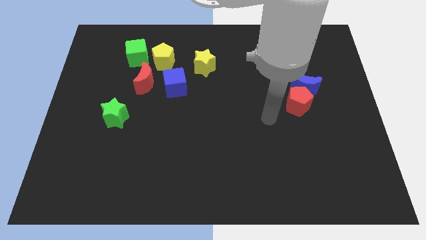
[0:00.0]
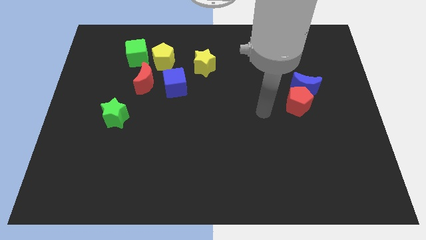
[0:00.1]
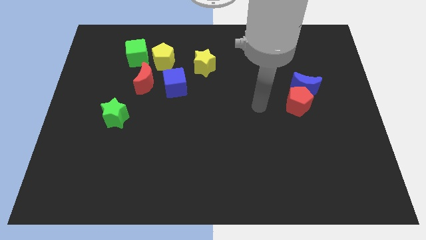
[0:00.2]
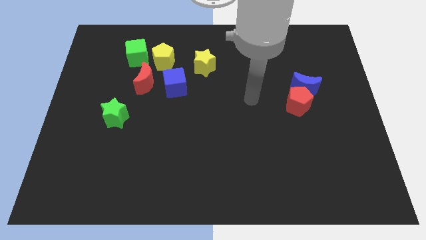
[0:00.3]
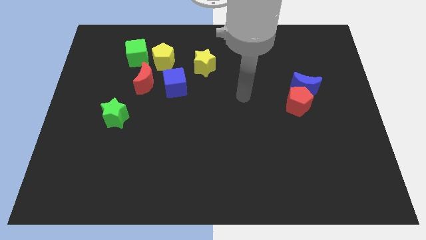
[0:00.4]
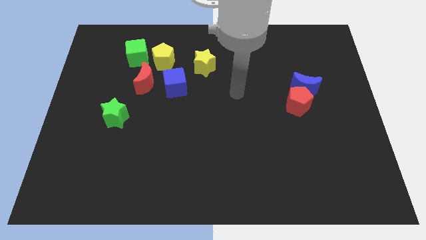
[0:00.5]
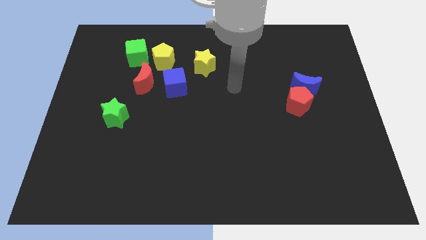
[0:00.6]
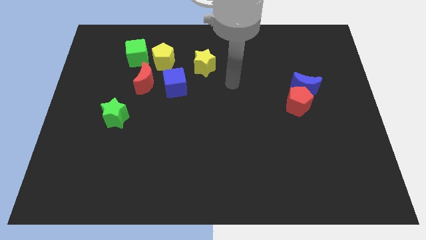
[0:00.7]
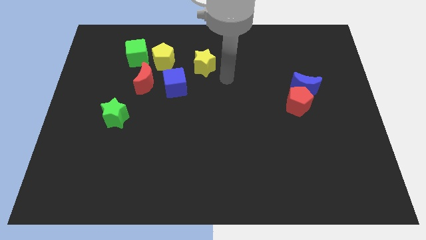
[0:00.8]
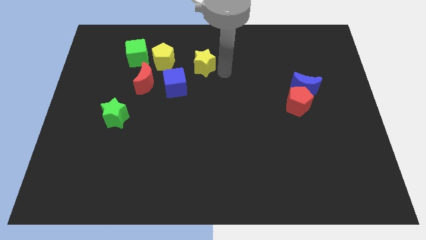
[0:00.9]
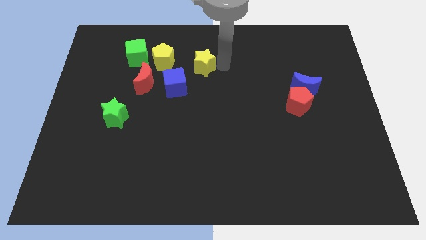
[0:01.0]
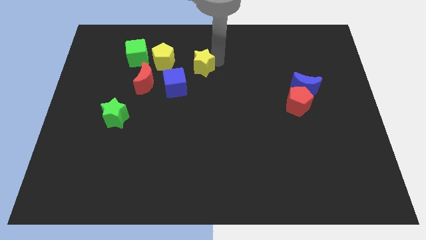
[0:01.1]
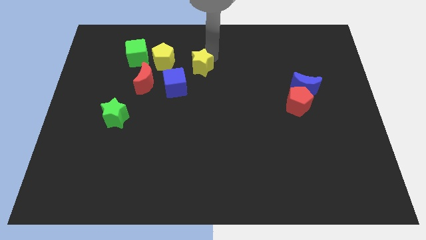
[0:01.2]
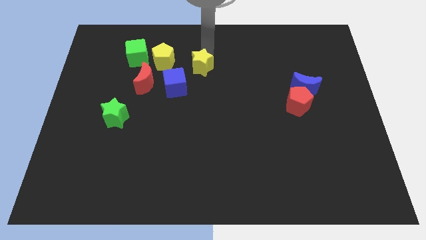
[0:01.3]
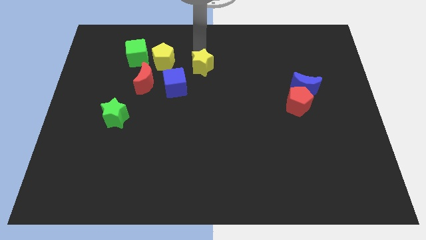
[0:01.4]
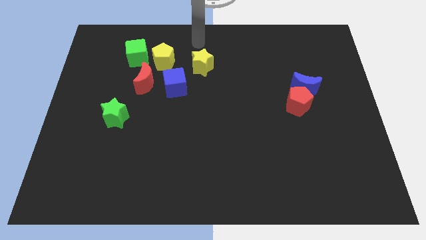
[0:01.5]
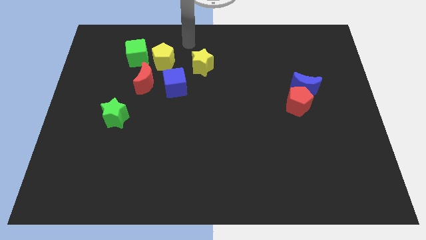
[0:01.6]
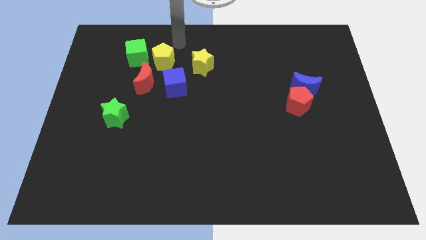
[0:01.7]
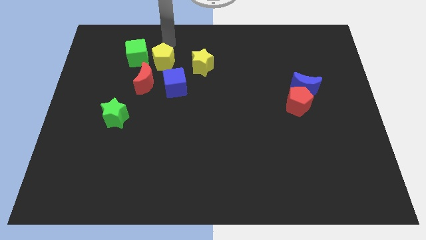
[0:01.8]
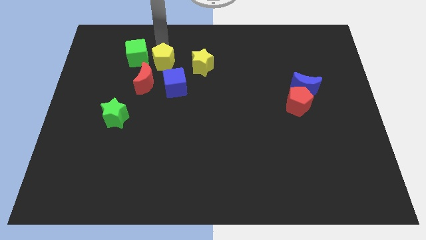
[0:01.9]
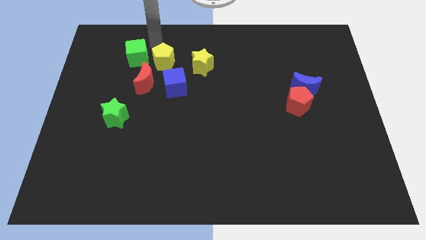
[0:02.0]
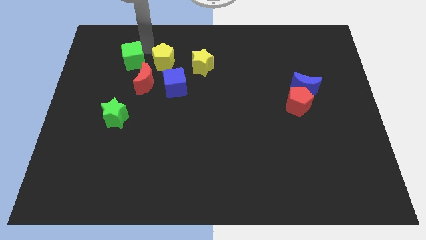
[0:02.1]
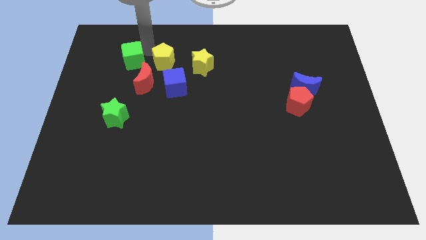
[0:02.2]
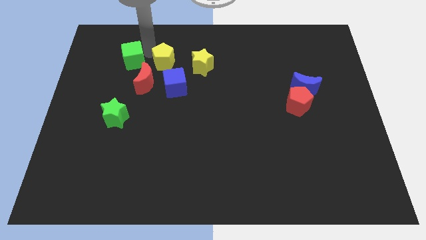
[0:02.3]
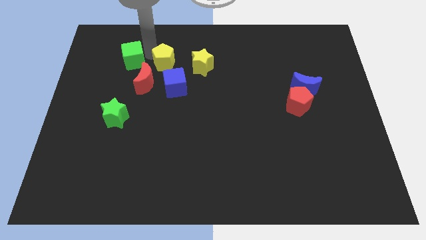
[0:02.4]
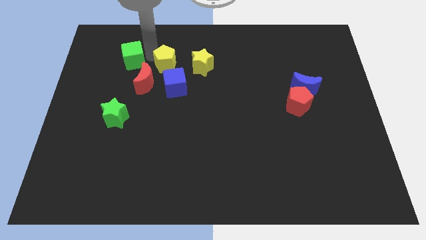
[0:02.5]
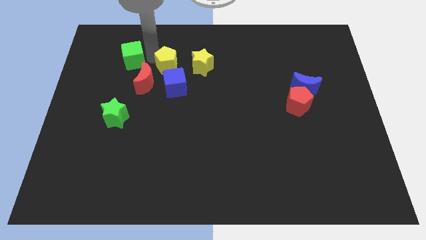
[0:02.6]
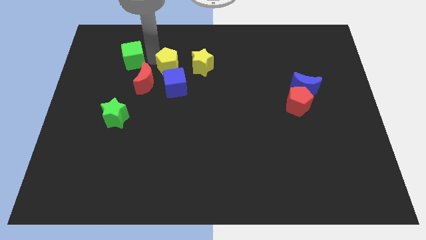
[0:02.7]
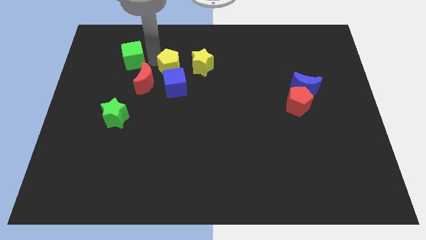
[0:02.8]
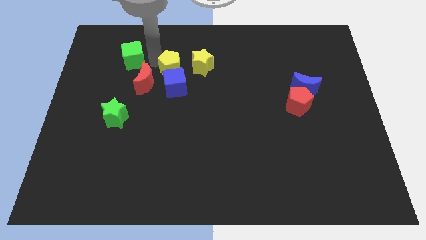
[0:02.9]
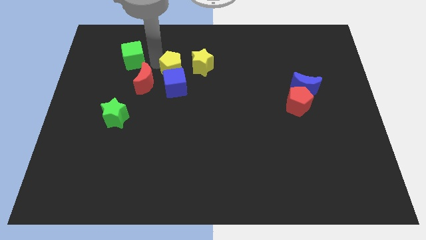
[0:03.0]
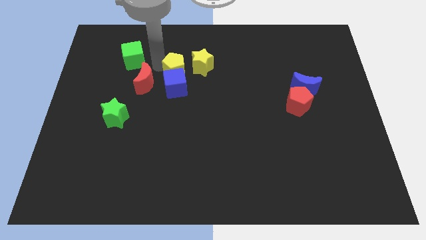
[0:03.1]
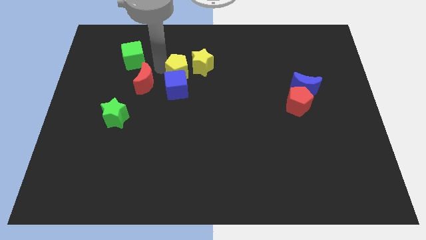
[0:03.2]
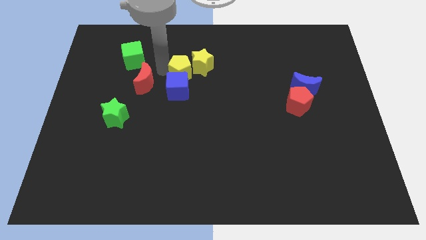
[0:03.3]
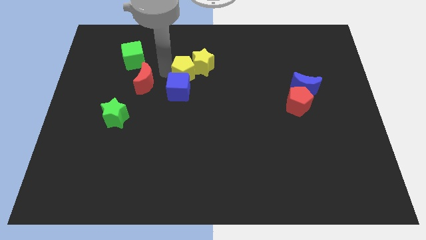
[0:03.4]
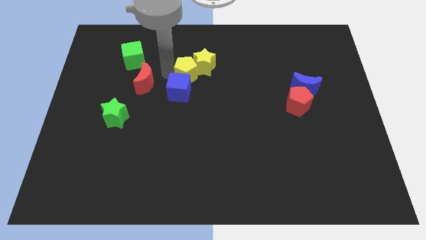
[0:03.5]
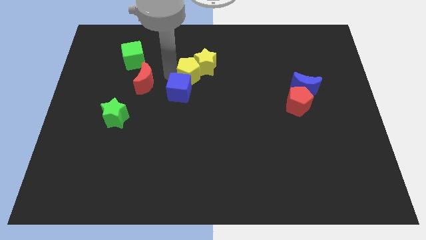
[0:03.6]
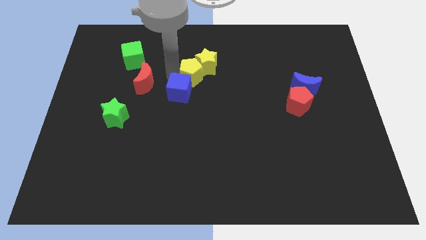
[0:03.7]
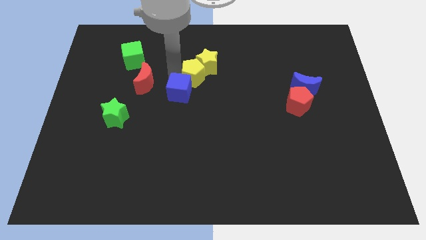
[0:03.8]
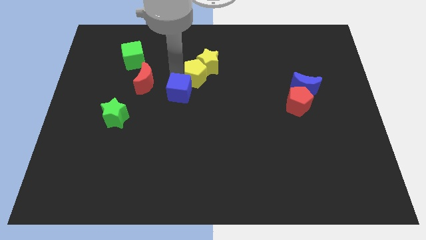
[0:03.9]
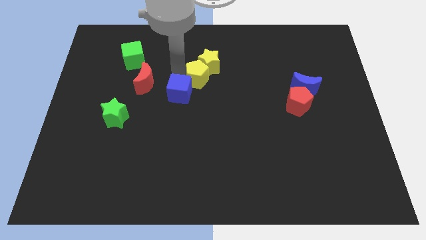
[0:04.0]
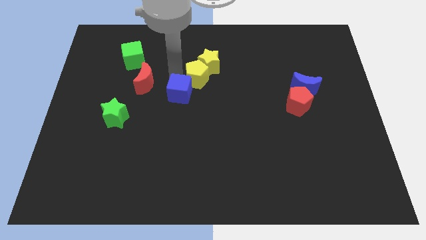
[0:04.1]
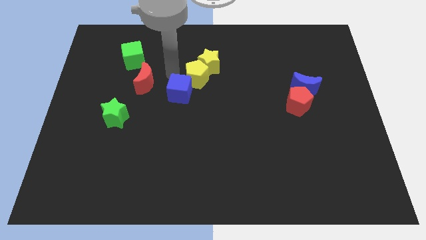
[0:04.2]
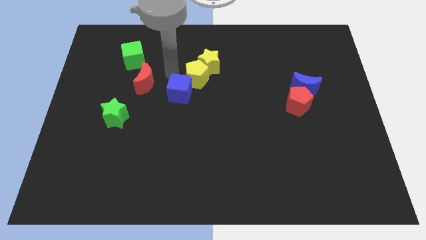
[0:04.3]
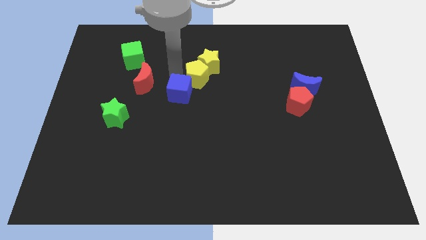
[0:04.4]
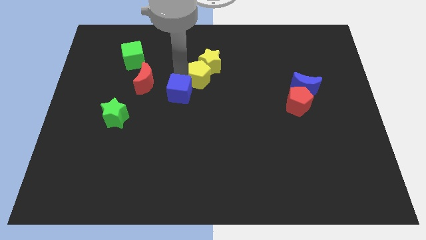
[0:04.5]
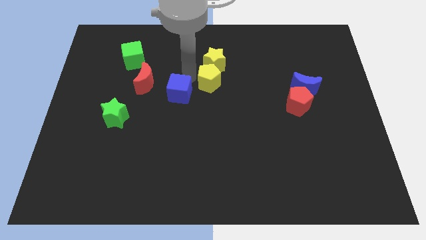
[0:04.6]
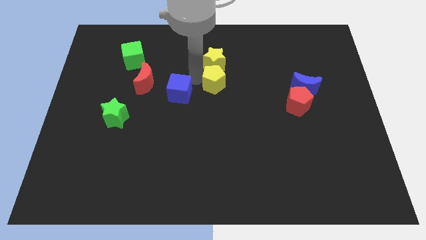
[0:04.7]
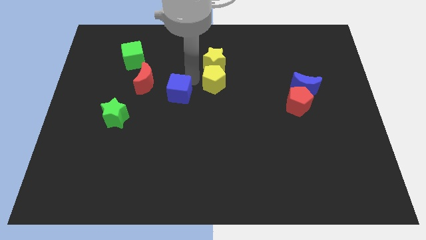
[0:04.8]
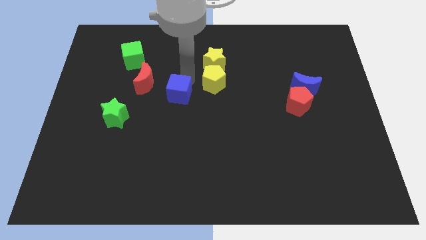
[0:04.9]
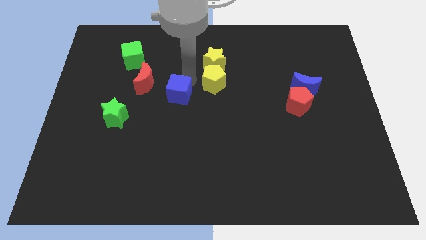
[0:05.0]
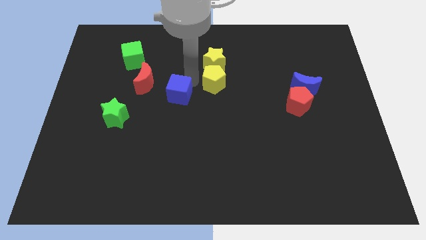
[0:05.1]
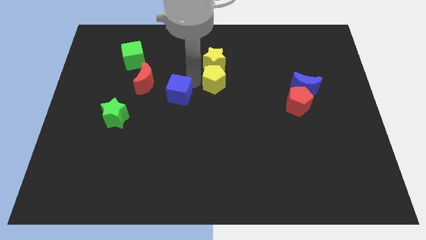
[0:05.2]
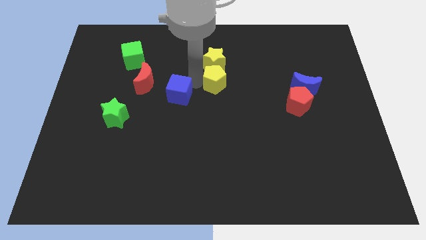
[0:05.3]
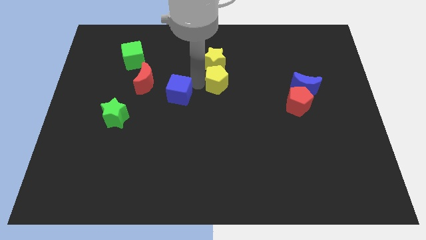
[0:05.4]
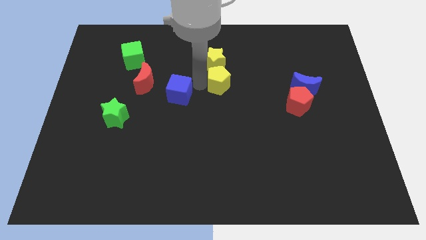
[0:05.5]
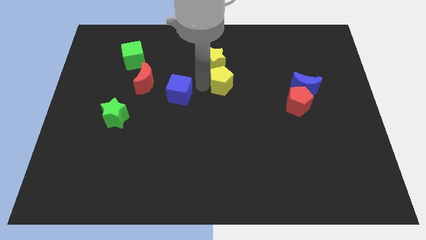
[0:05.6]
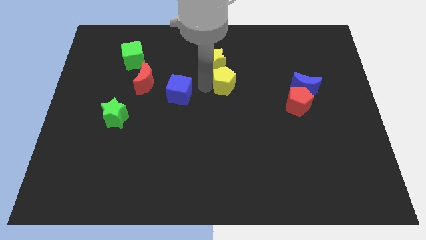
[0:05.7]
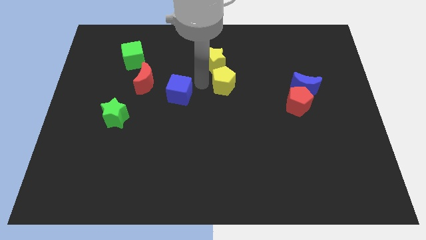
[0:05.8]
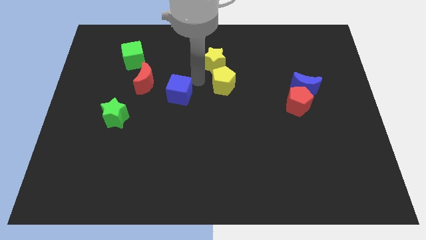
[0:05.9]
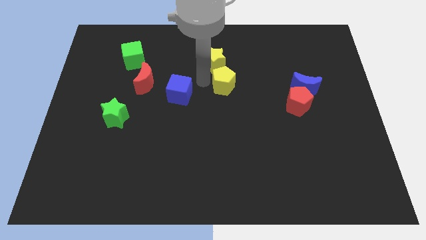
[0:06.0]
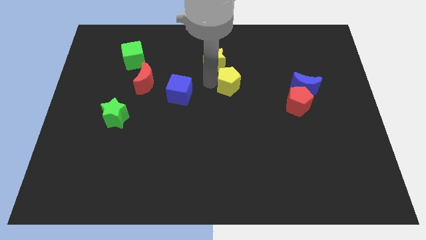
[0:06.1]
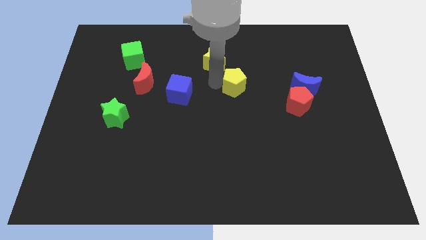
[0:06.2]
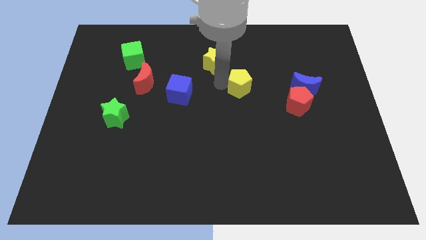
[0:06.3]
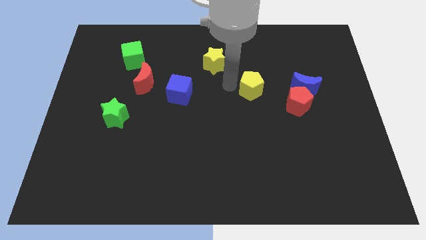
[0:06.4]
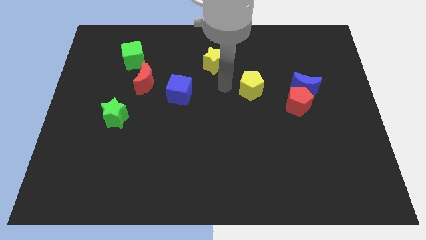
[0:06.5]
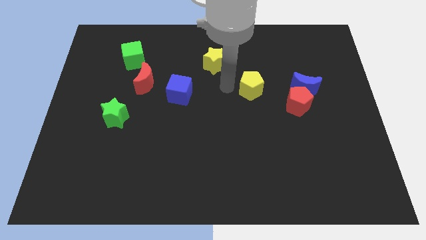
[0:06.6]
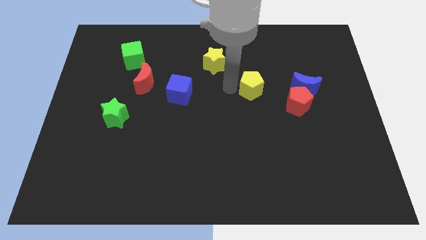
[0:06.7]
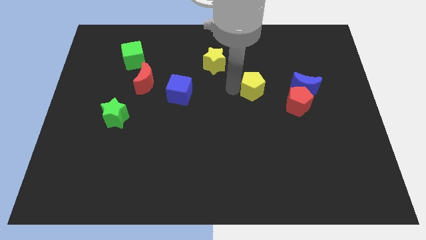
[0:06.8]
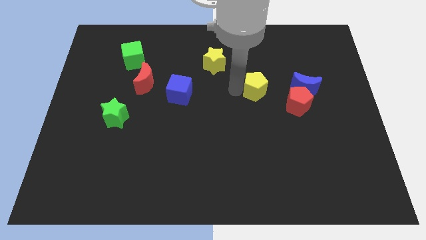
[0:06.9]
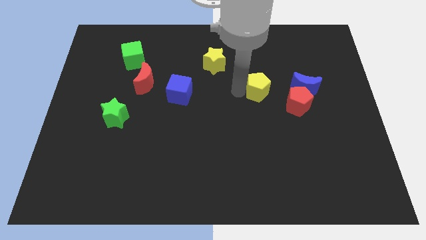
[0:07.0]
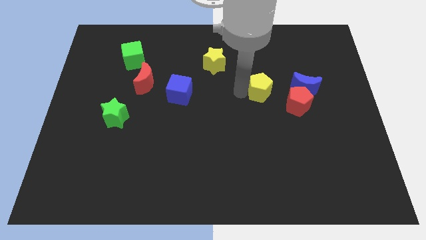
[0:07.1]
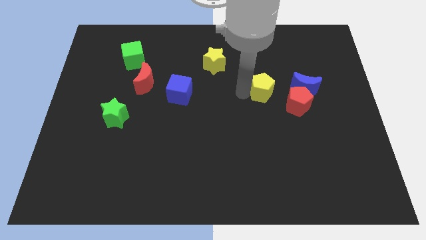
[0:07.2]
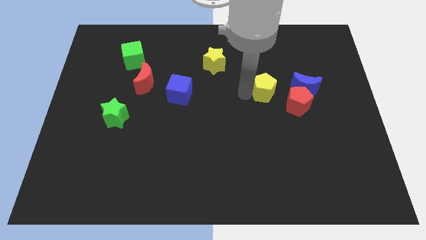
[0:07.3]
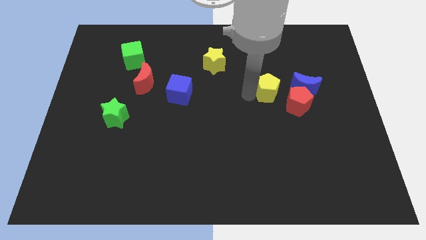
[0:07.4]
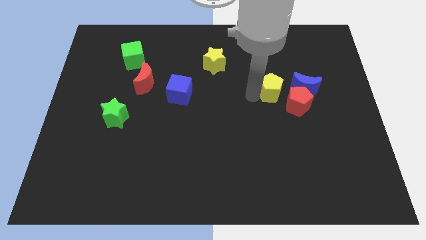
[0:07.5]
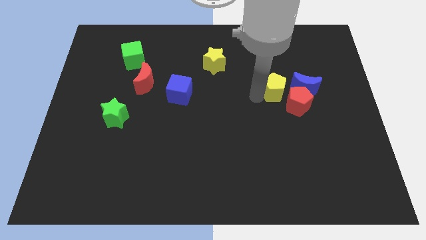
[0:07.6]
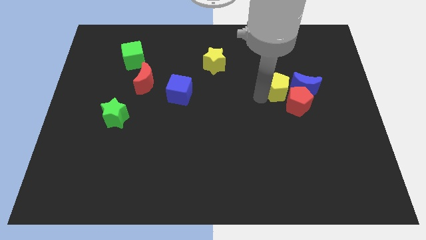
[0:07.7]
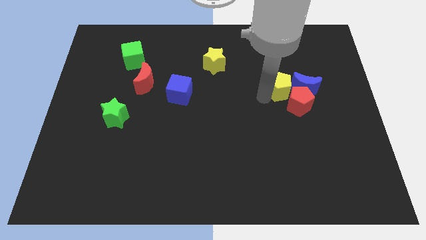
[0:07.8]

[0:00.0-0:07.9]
slide the yellow pentagon towards the blue moon
